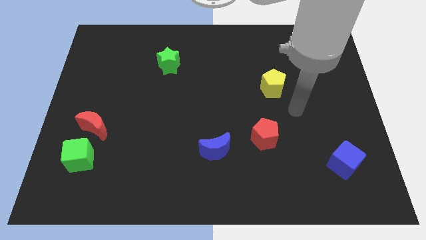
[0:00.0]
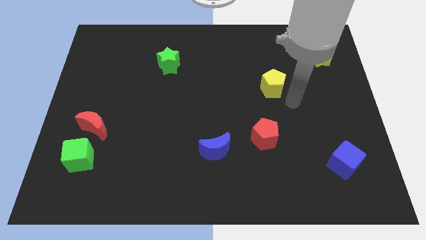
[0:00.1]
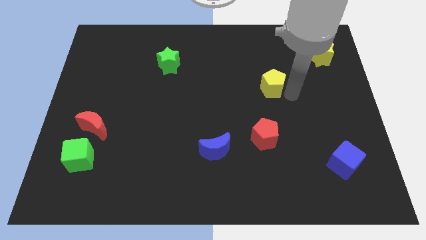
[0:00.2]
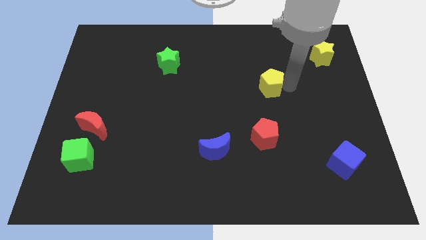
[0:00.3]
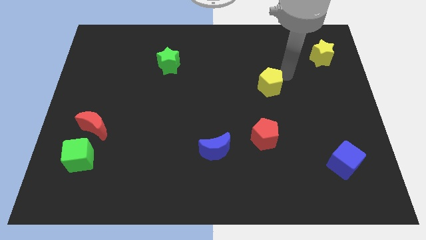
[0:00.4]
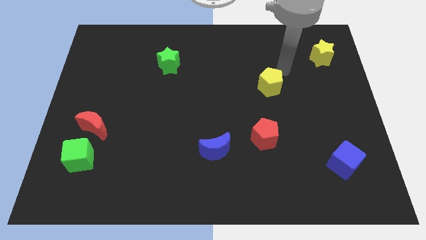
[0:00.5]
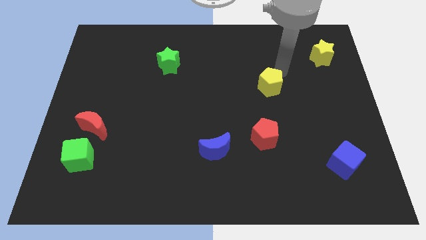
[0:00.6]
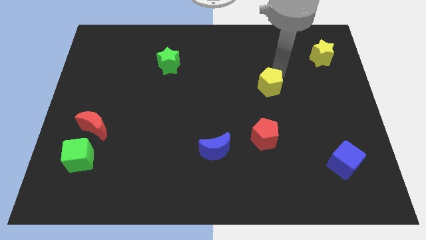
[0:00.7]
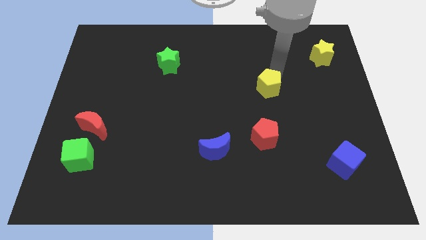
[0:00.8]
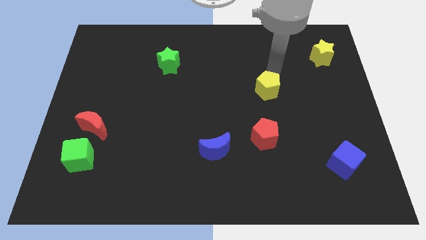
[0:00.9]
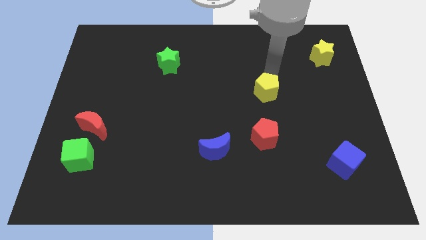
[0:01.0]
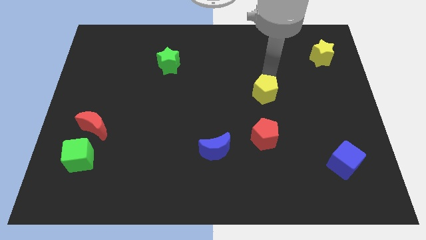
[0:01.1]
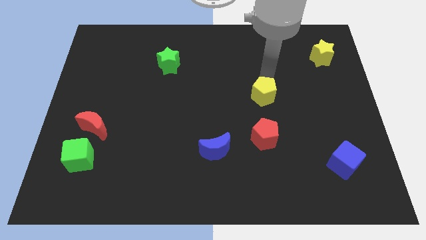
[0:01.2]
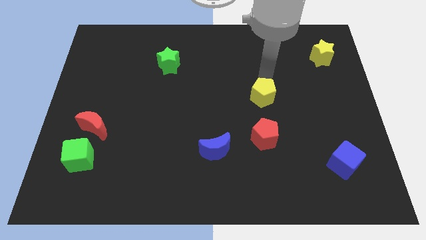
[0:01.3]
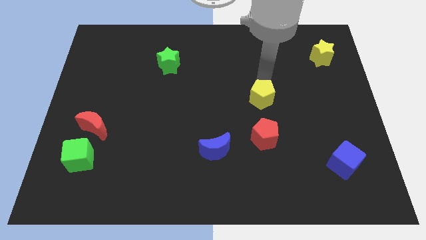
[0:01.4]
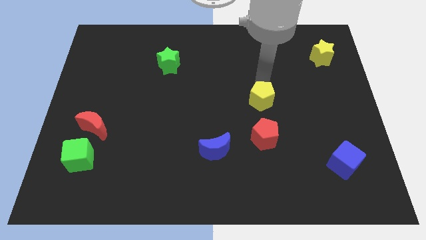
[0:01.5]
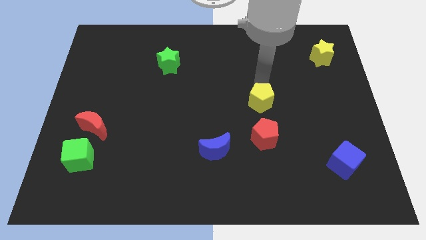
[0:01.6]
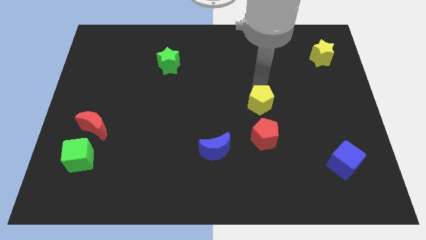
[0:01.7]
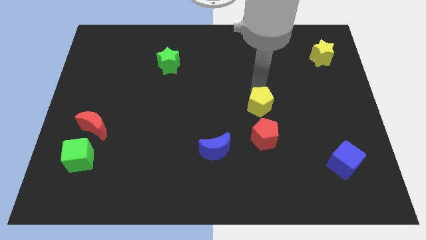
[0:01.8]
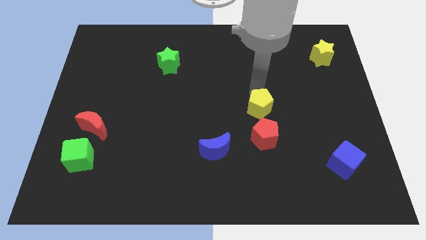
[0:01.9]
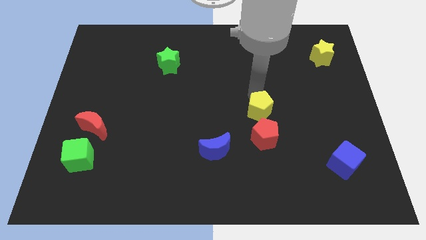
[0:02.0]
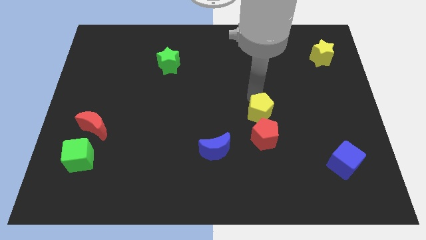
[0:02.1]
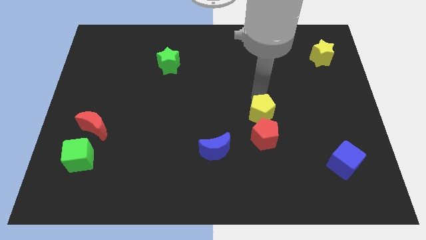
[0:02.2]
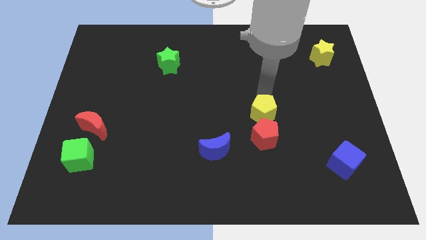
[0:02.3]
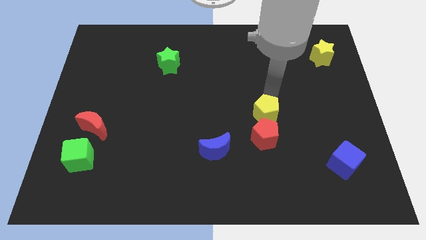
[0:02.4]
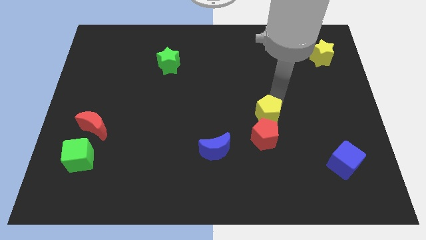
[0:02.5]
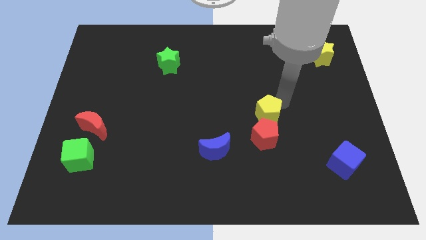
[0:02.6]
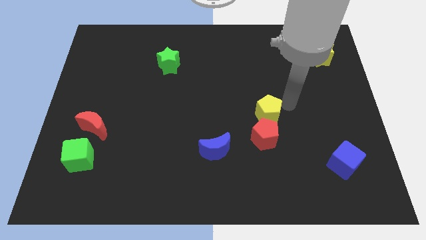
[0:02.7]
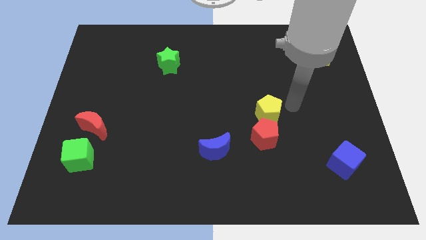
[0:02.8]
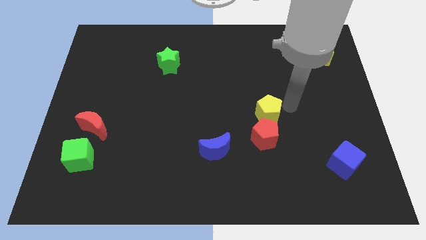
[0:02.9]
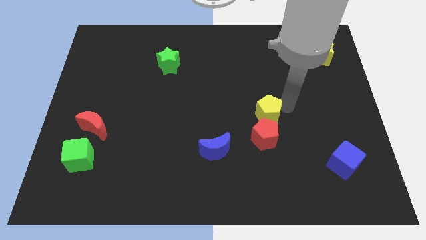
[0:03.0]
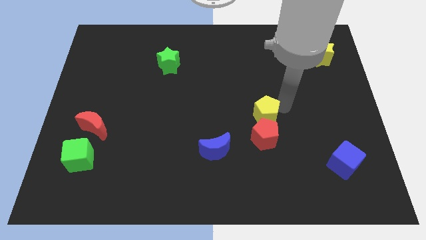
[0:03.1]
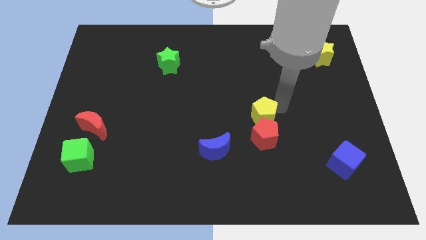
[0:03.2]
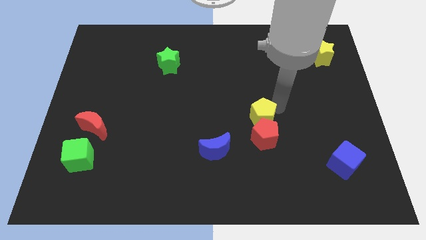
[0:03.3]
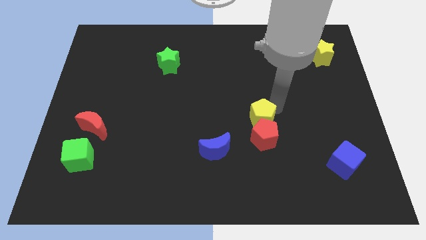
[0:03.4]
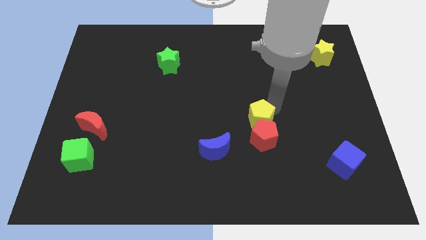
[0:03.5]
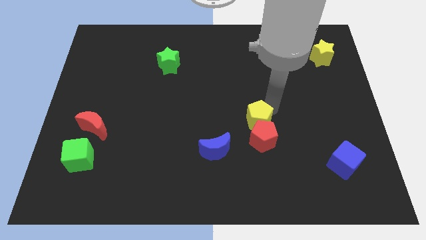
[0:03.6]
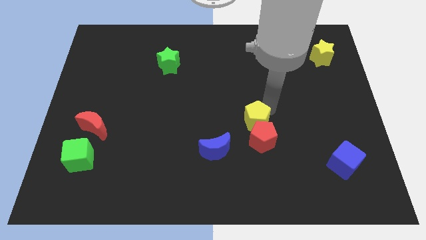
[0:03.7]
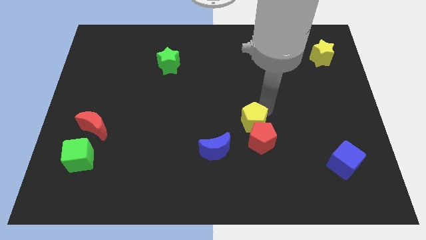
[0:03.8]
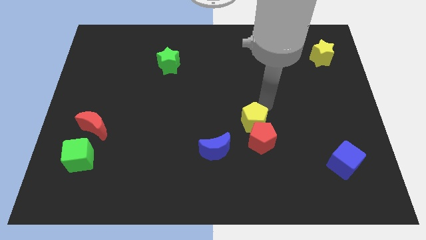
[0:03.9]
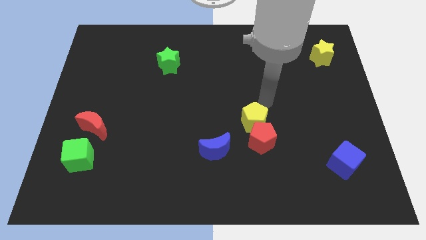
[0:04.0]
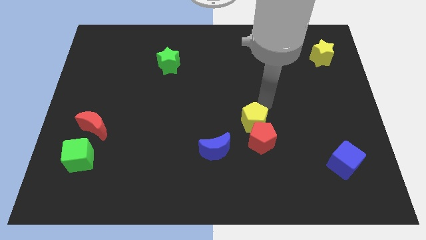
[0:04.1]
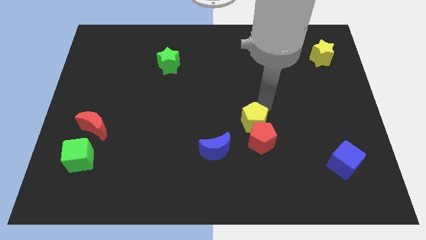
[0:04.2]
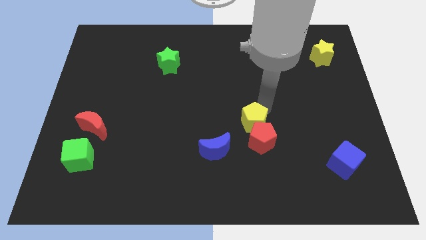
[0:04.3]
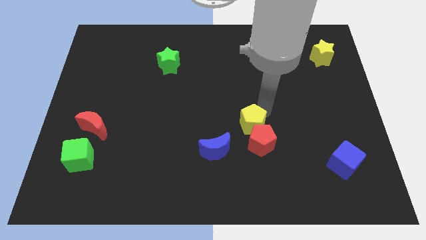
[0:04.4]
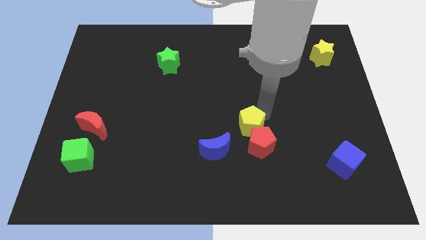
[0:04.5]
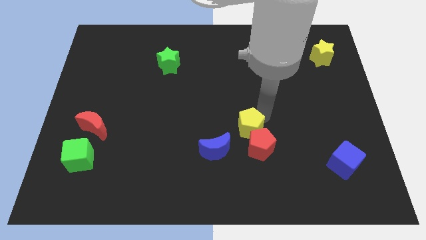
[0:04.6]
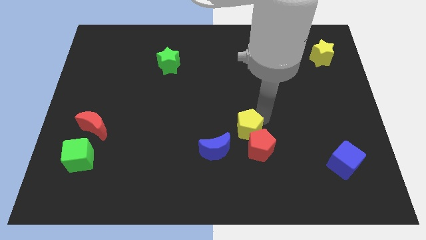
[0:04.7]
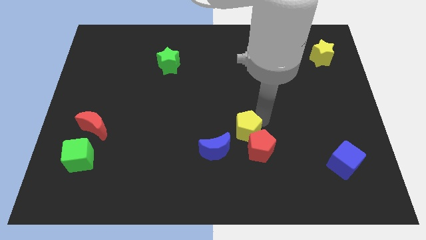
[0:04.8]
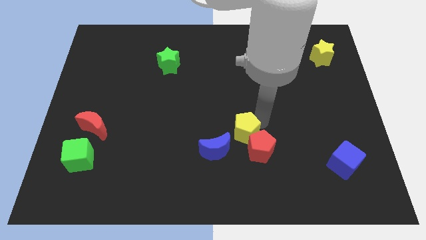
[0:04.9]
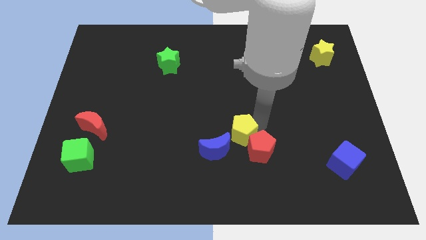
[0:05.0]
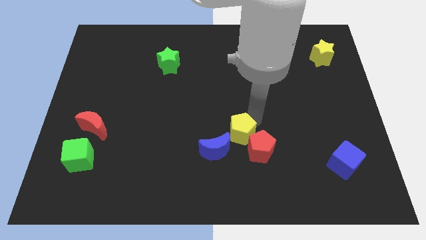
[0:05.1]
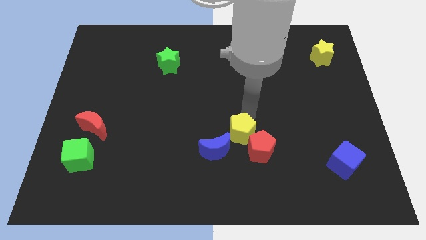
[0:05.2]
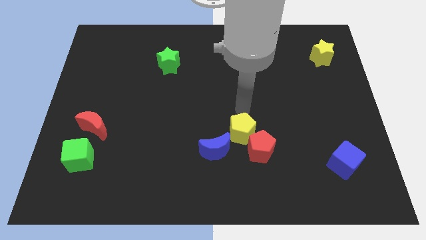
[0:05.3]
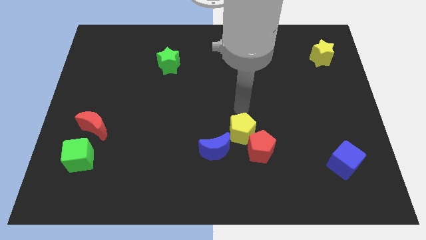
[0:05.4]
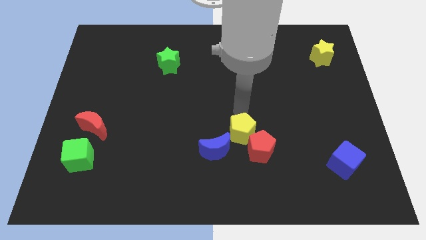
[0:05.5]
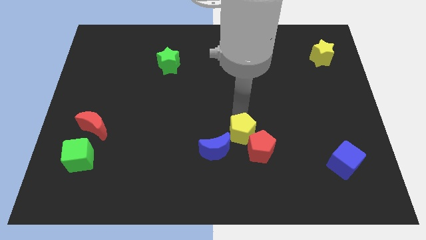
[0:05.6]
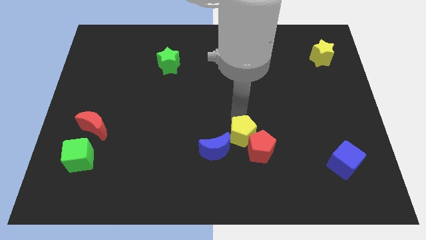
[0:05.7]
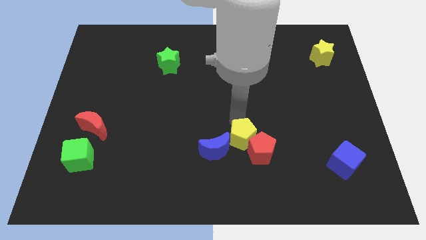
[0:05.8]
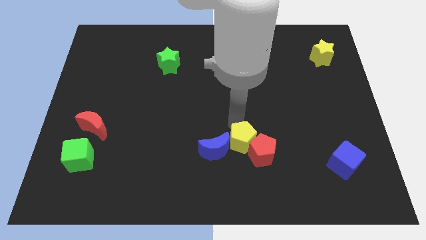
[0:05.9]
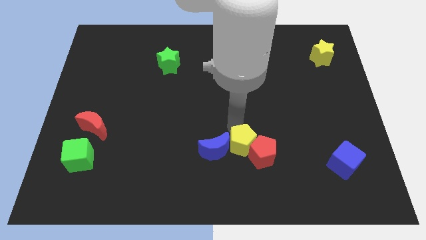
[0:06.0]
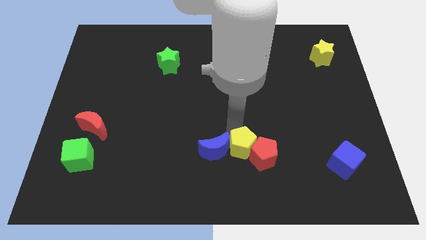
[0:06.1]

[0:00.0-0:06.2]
push the yellow pentagon to the bottom right of the blue moon
